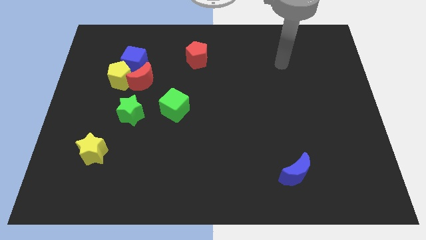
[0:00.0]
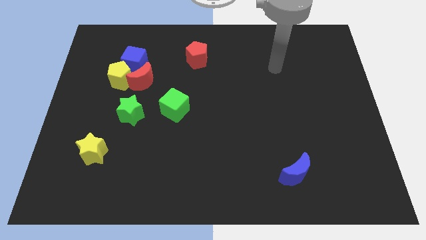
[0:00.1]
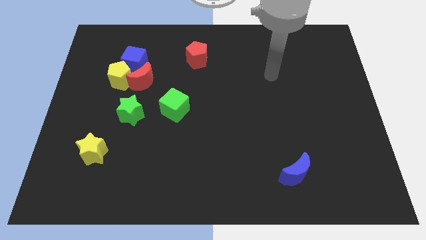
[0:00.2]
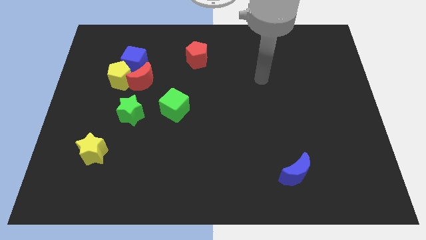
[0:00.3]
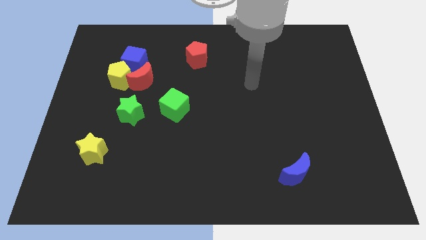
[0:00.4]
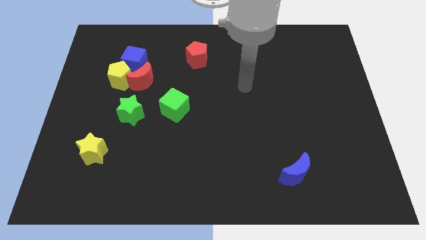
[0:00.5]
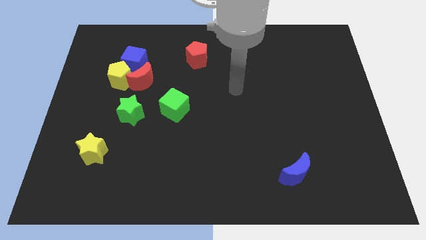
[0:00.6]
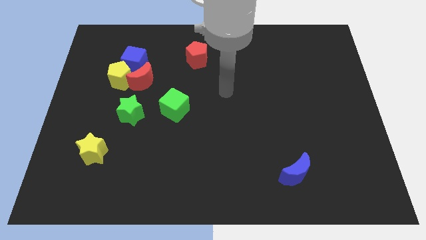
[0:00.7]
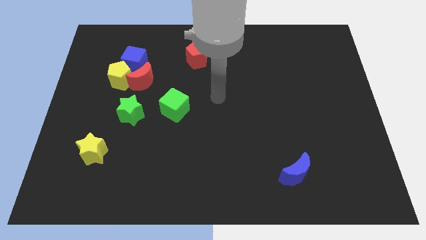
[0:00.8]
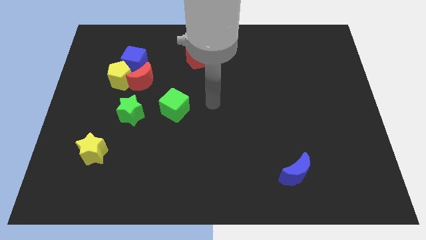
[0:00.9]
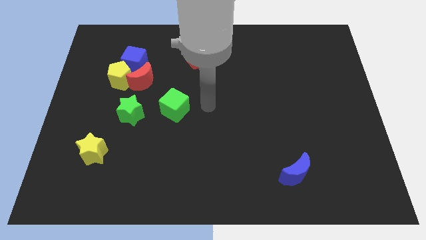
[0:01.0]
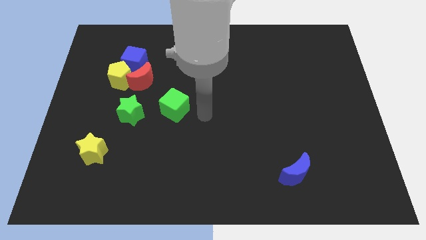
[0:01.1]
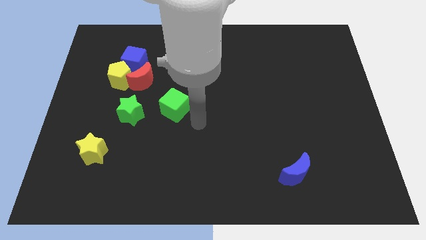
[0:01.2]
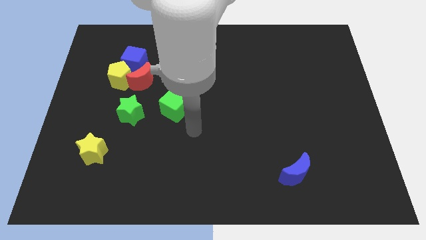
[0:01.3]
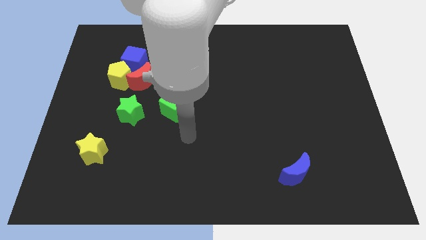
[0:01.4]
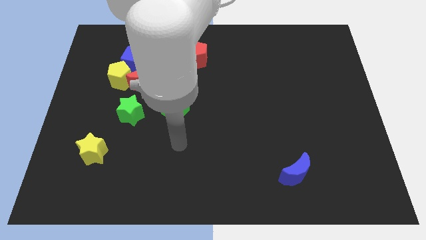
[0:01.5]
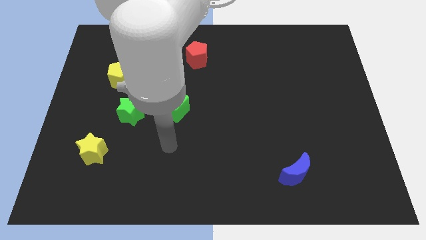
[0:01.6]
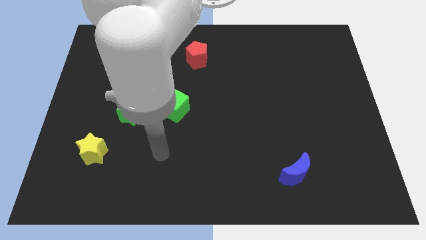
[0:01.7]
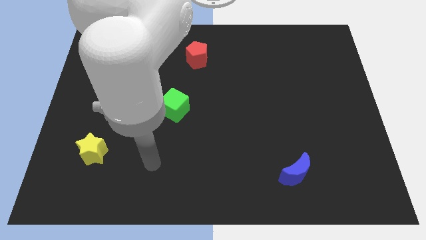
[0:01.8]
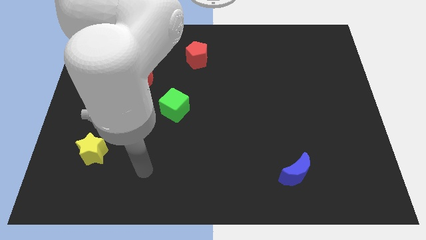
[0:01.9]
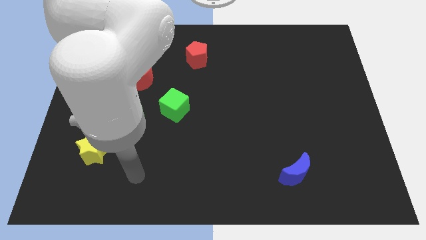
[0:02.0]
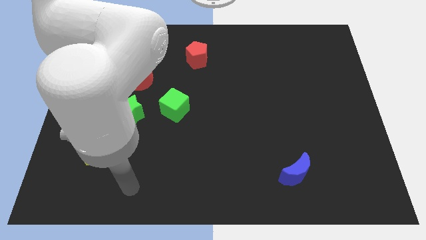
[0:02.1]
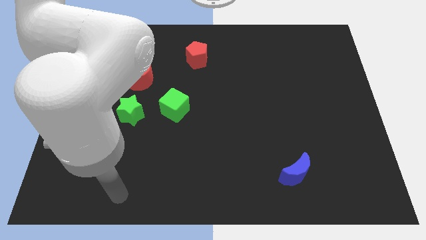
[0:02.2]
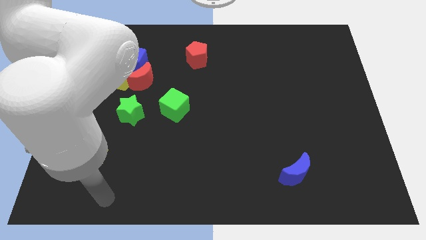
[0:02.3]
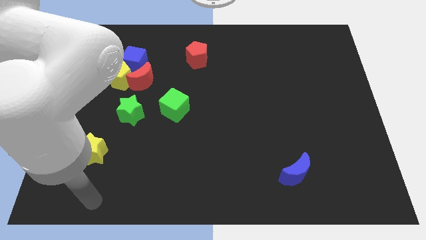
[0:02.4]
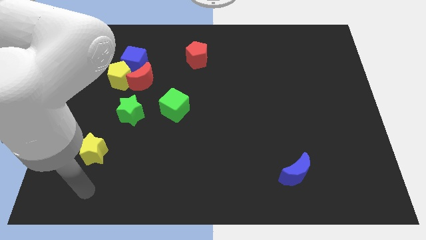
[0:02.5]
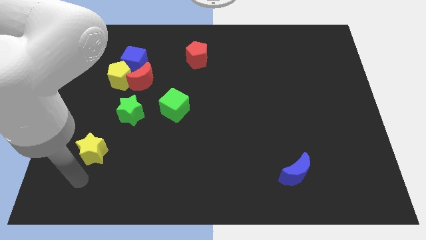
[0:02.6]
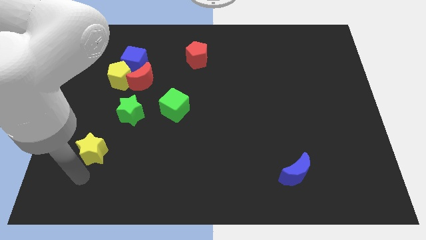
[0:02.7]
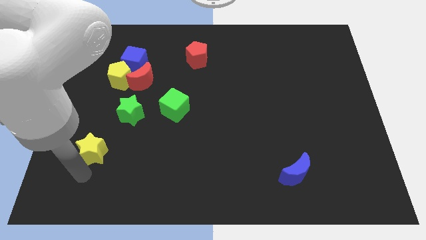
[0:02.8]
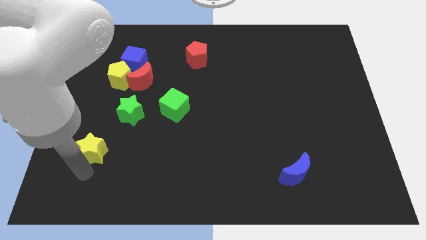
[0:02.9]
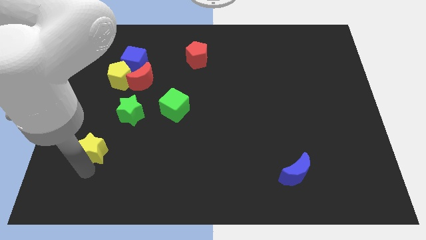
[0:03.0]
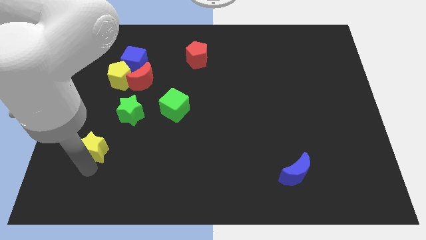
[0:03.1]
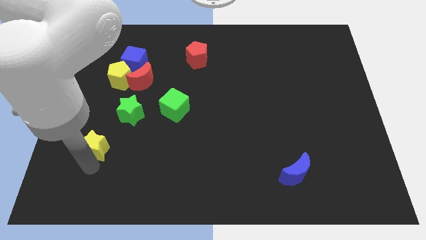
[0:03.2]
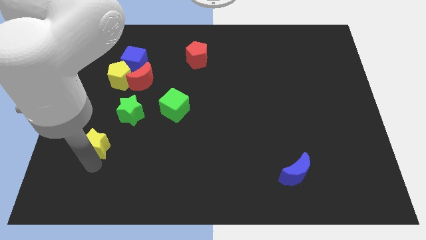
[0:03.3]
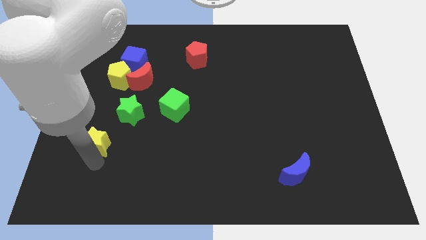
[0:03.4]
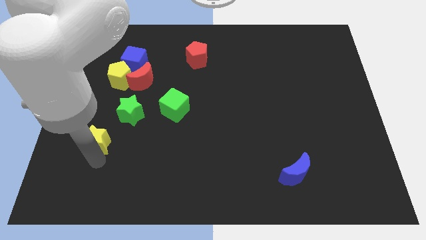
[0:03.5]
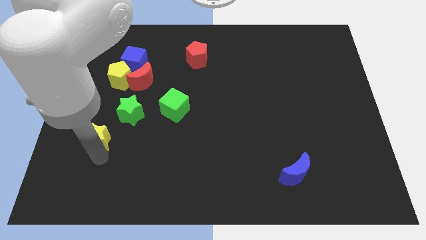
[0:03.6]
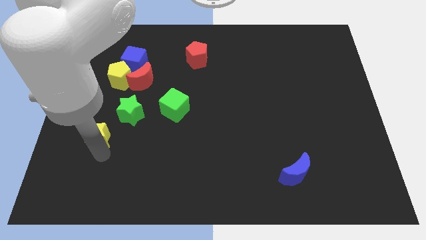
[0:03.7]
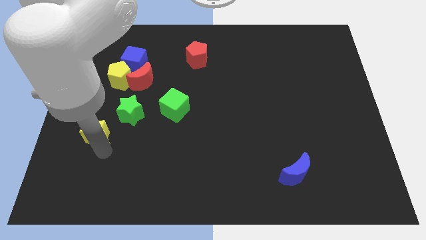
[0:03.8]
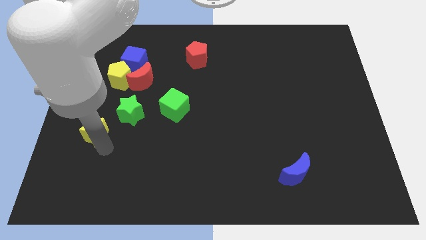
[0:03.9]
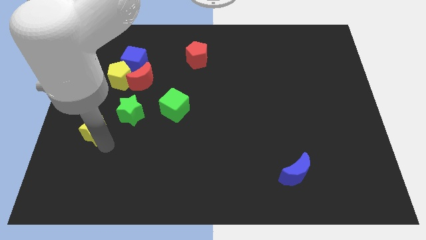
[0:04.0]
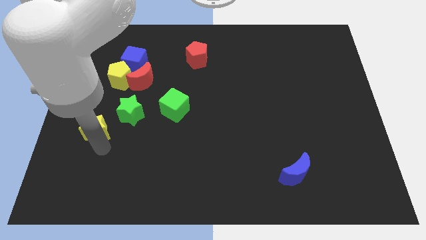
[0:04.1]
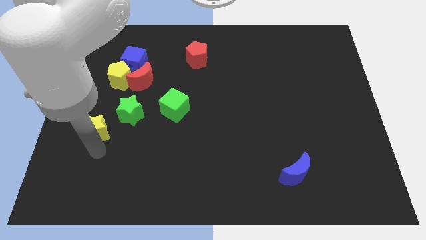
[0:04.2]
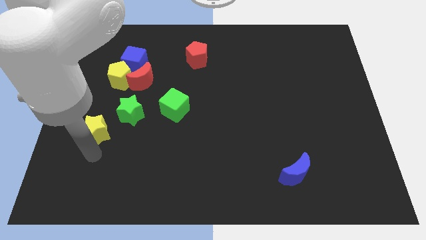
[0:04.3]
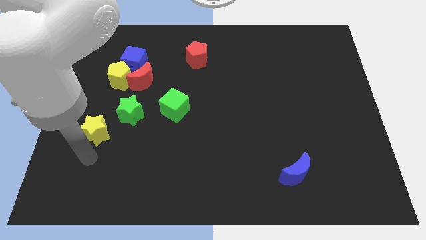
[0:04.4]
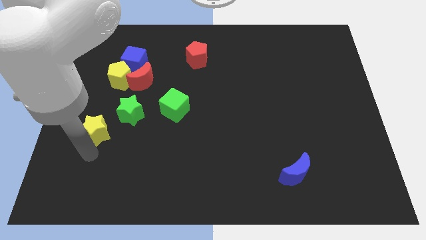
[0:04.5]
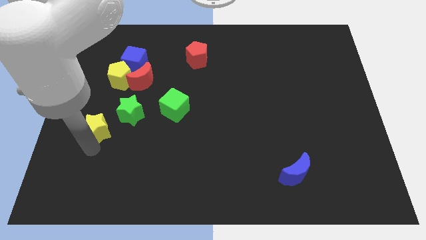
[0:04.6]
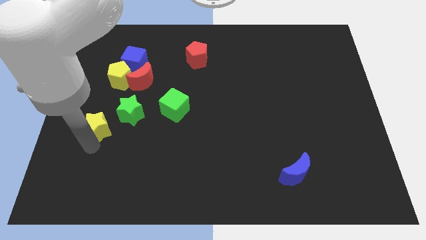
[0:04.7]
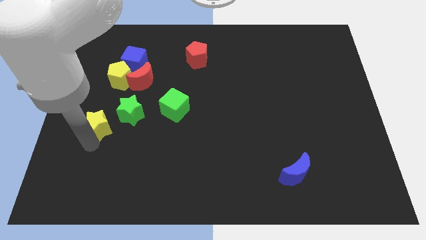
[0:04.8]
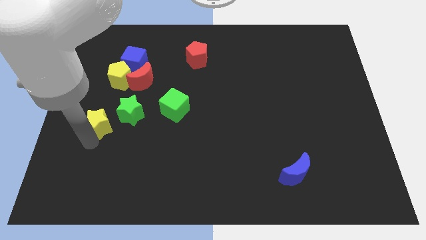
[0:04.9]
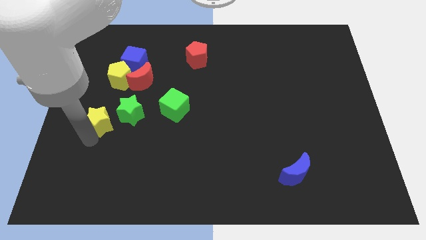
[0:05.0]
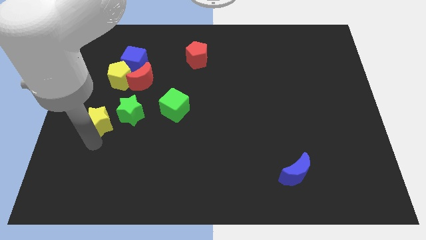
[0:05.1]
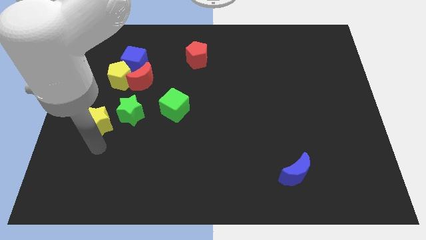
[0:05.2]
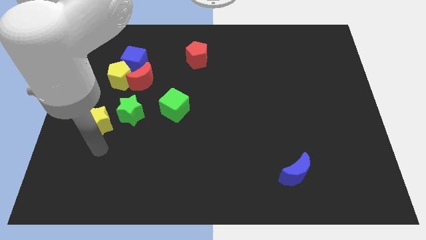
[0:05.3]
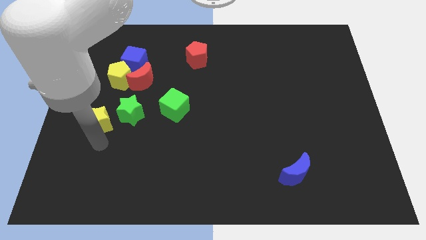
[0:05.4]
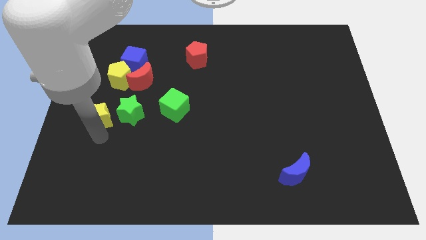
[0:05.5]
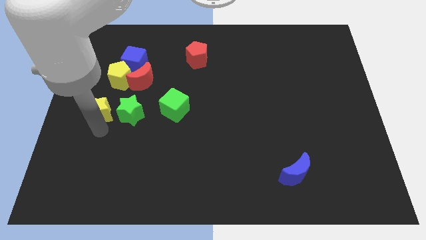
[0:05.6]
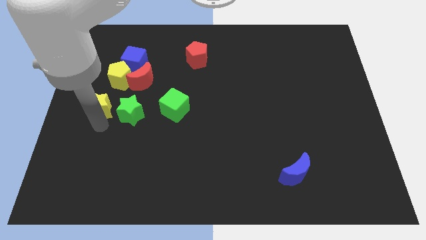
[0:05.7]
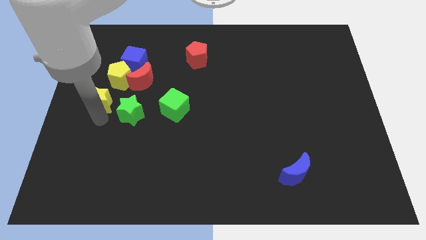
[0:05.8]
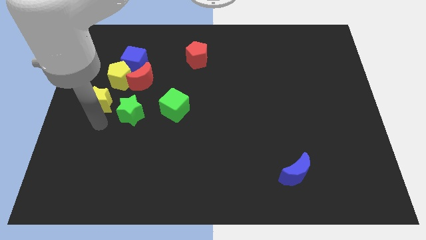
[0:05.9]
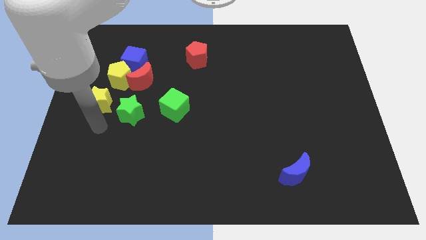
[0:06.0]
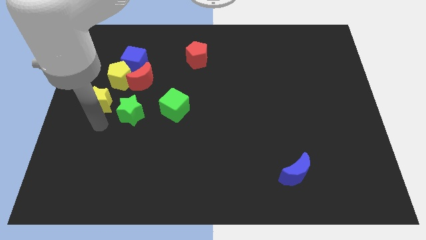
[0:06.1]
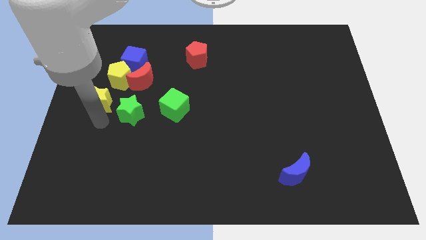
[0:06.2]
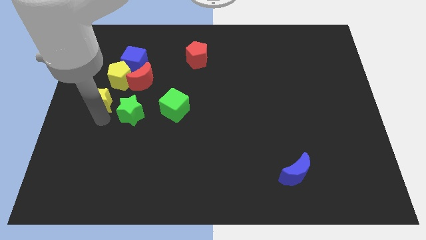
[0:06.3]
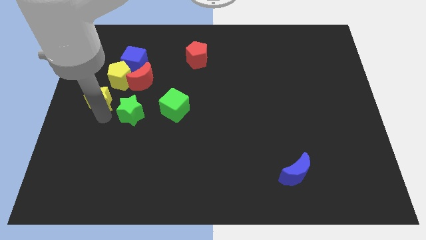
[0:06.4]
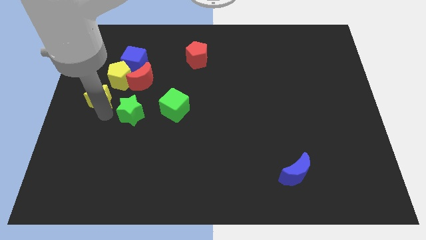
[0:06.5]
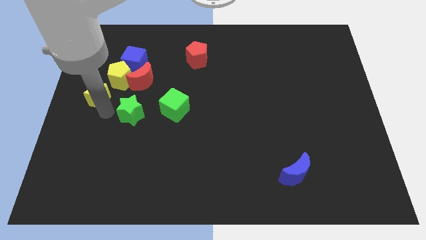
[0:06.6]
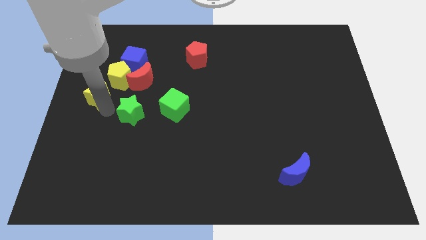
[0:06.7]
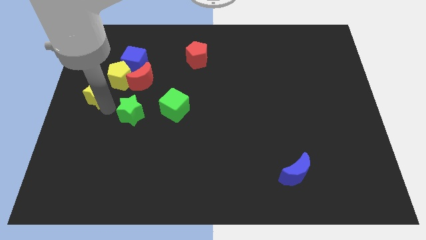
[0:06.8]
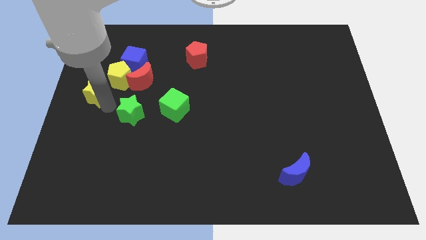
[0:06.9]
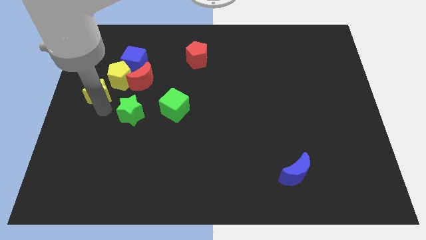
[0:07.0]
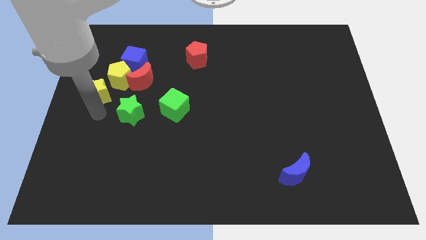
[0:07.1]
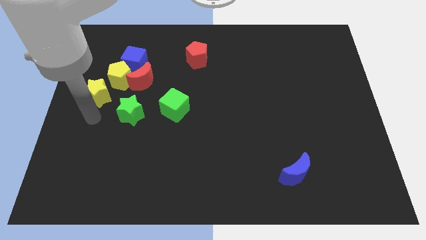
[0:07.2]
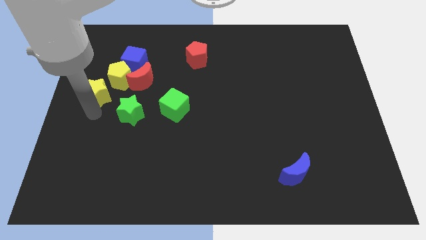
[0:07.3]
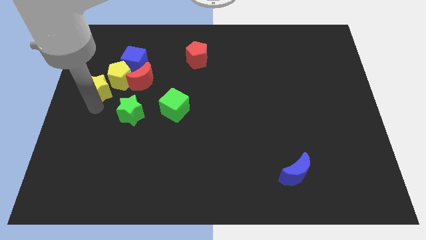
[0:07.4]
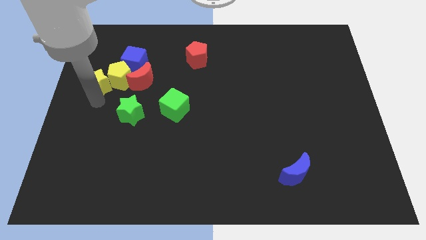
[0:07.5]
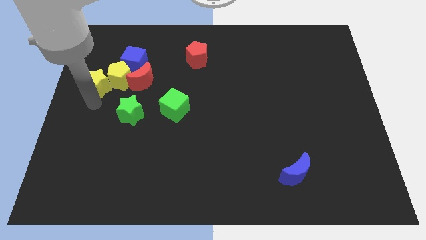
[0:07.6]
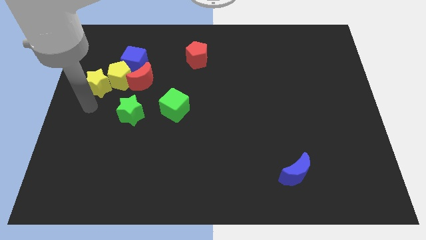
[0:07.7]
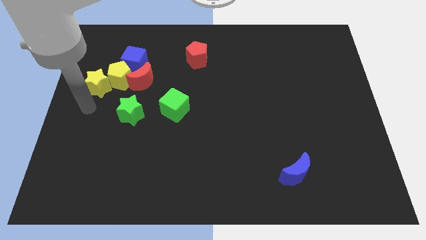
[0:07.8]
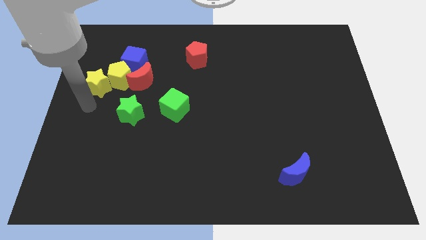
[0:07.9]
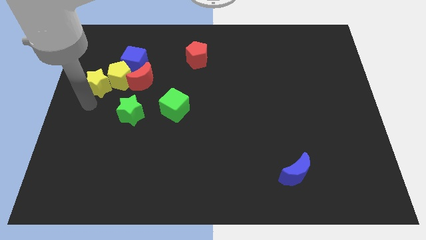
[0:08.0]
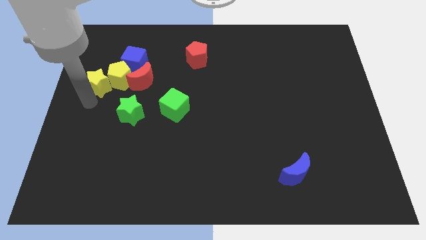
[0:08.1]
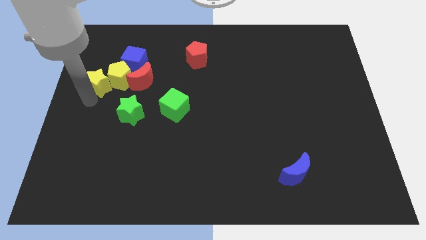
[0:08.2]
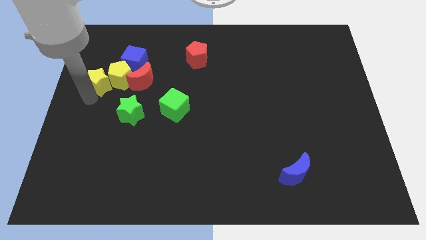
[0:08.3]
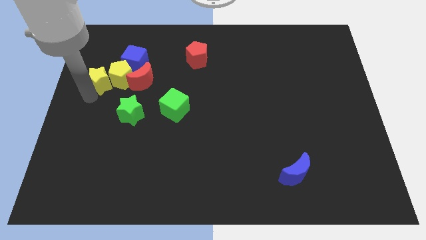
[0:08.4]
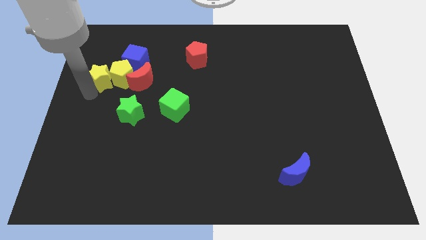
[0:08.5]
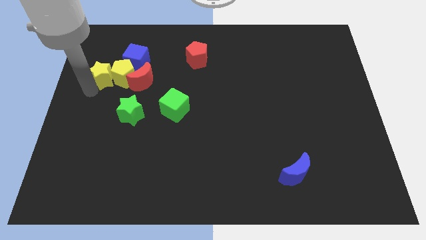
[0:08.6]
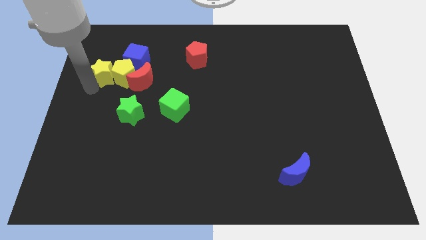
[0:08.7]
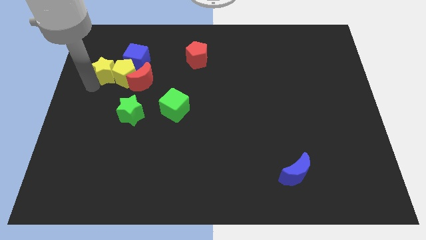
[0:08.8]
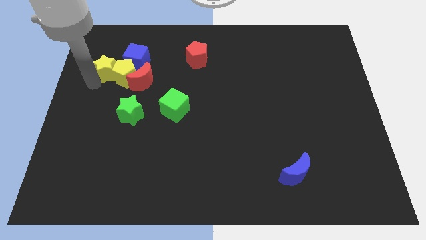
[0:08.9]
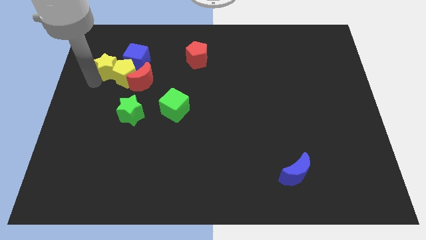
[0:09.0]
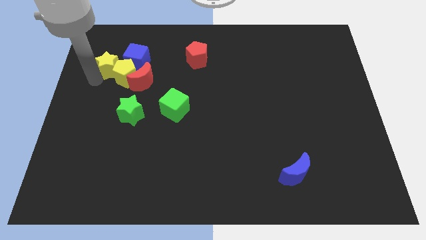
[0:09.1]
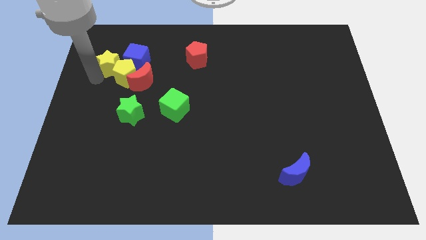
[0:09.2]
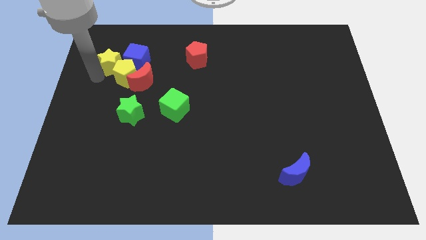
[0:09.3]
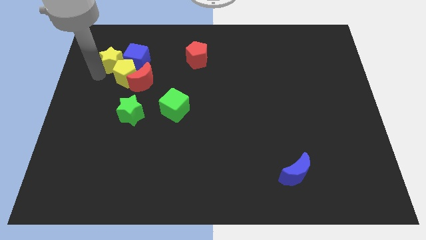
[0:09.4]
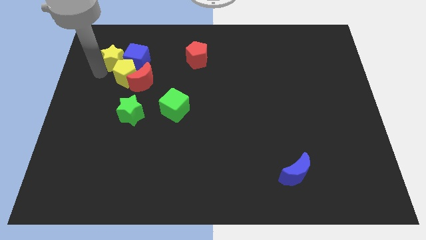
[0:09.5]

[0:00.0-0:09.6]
push the yellow star close to the blue cube
